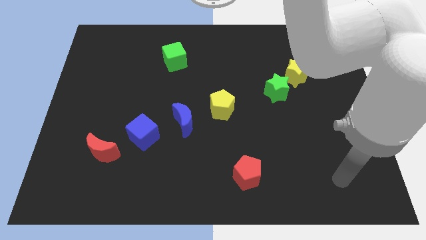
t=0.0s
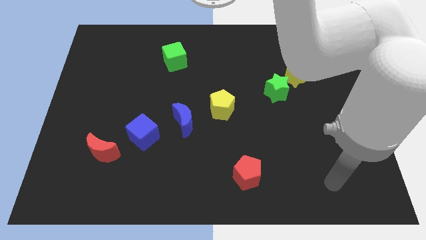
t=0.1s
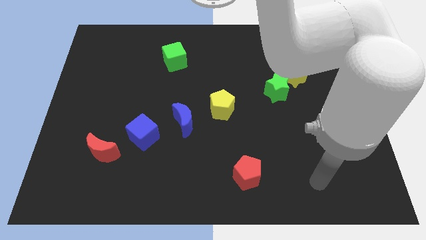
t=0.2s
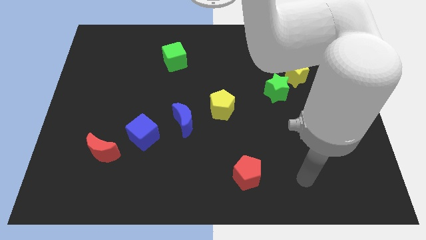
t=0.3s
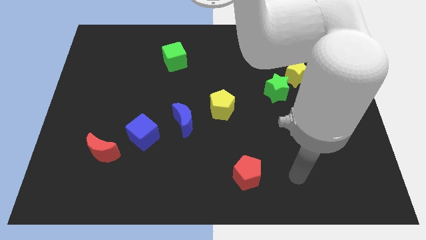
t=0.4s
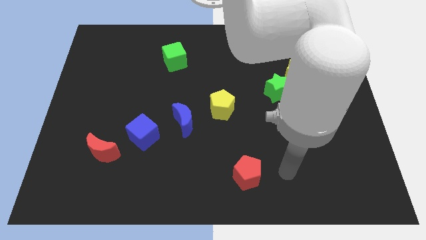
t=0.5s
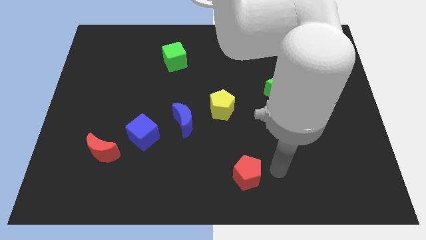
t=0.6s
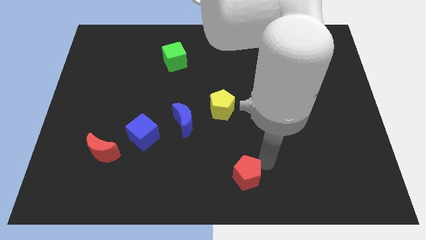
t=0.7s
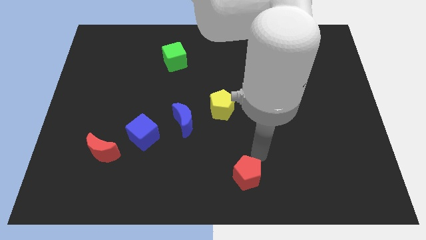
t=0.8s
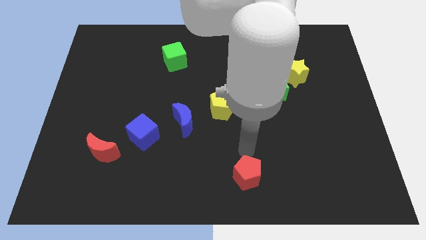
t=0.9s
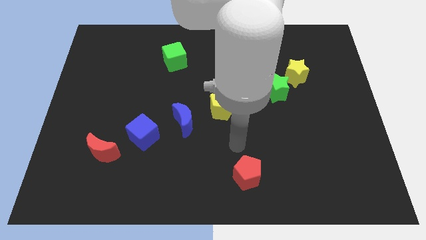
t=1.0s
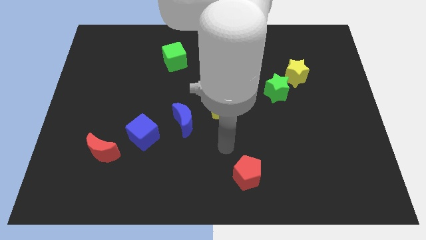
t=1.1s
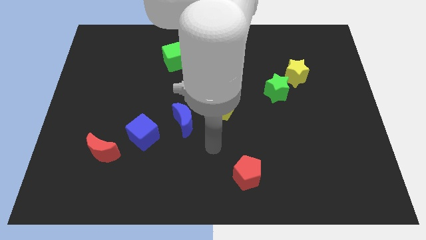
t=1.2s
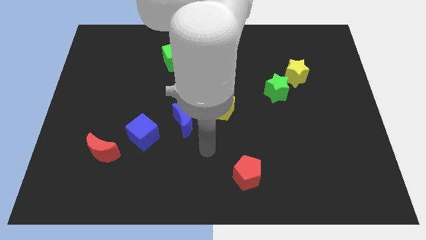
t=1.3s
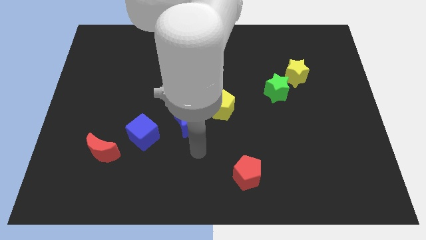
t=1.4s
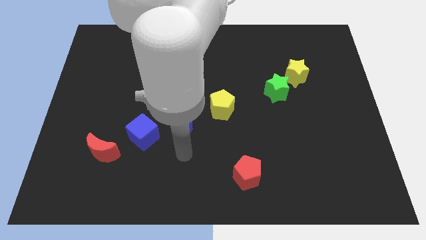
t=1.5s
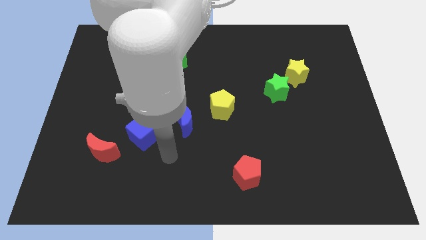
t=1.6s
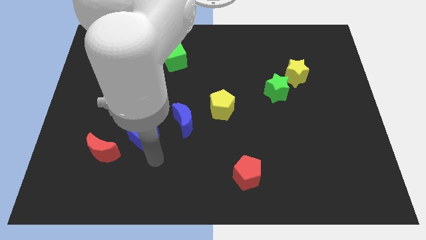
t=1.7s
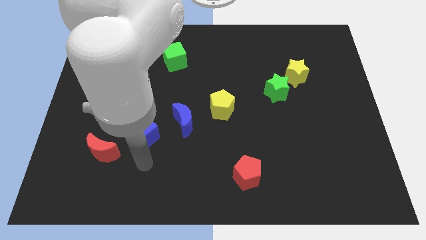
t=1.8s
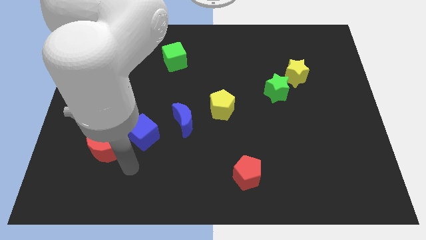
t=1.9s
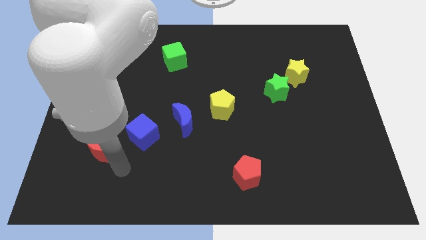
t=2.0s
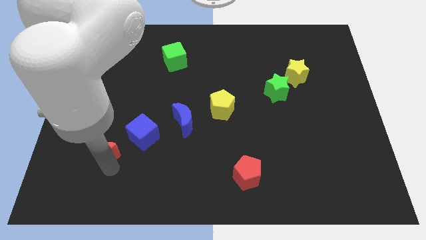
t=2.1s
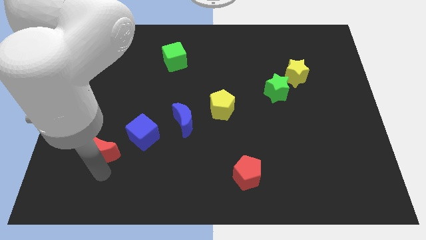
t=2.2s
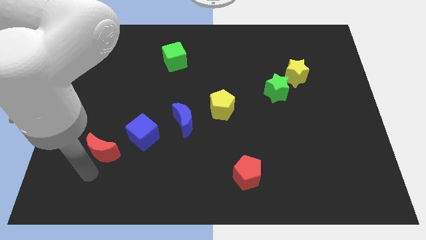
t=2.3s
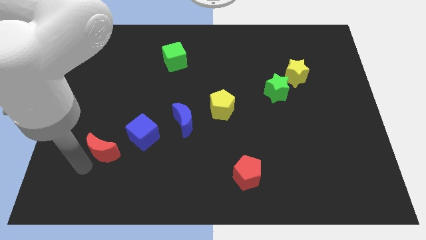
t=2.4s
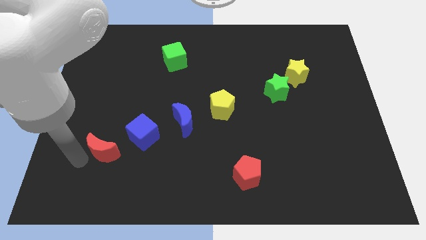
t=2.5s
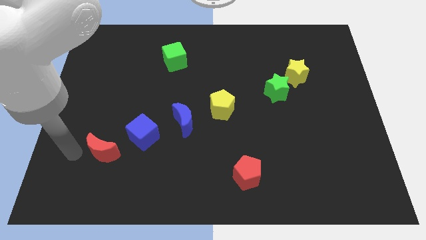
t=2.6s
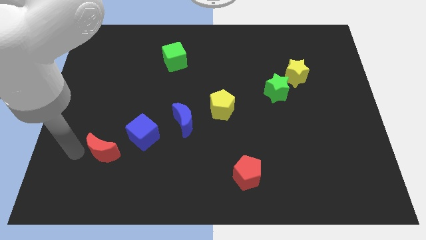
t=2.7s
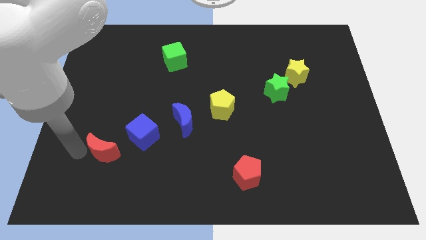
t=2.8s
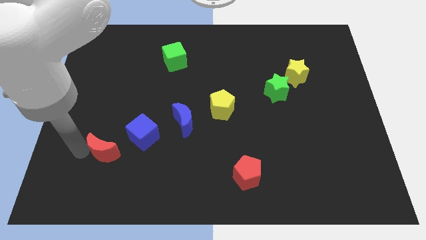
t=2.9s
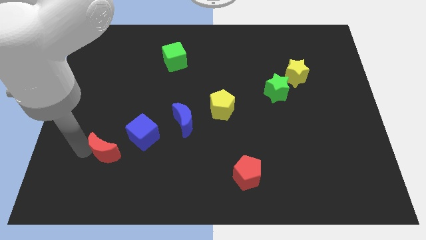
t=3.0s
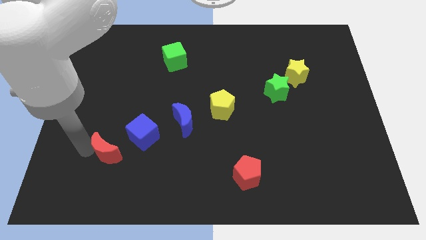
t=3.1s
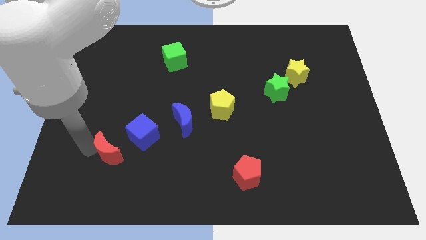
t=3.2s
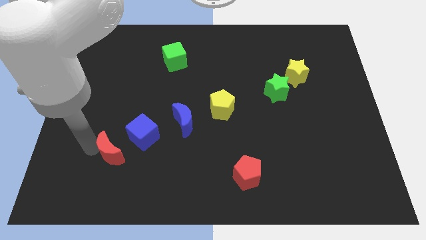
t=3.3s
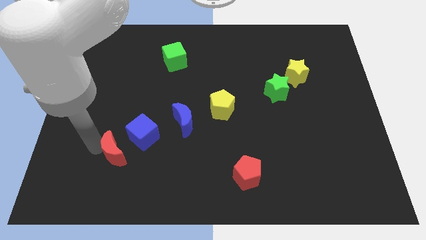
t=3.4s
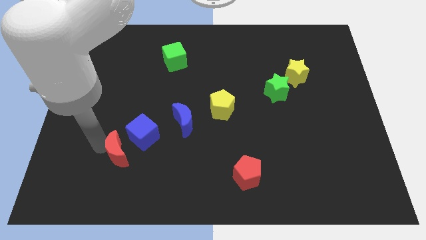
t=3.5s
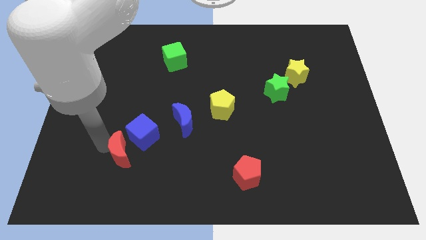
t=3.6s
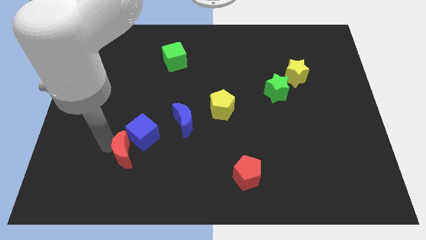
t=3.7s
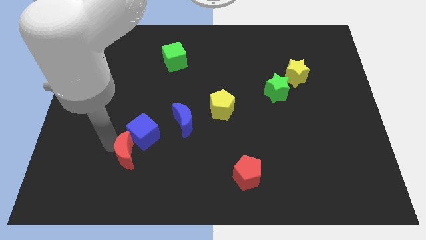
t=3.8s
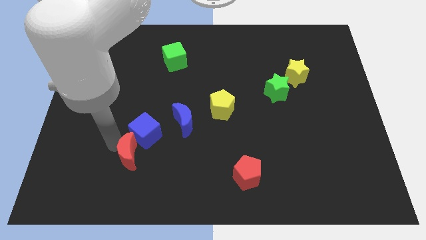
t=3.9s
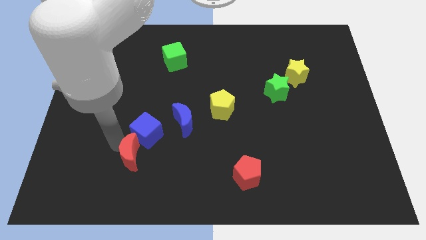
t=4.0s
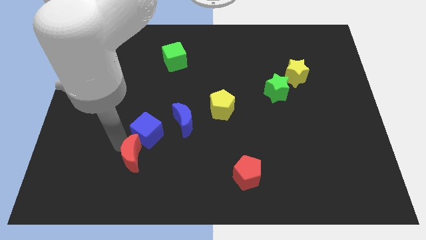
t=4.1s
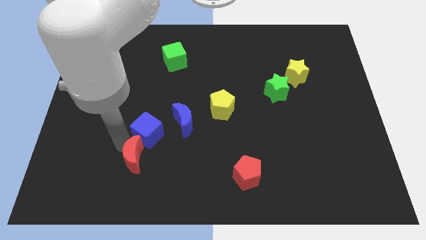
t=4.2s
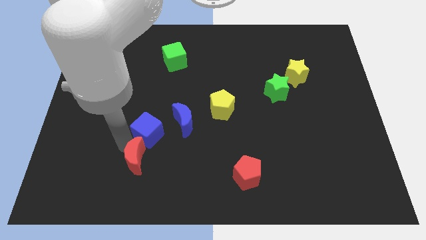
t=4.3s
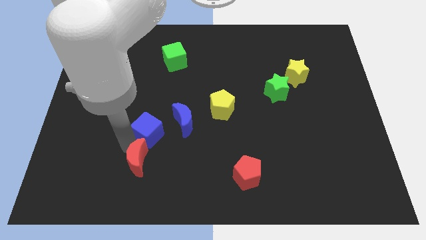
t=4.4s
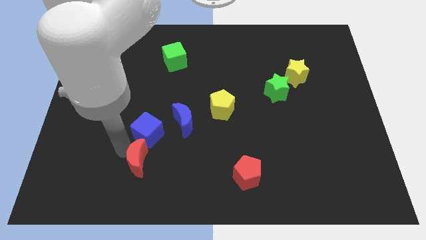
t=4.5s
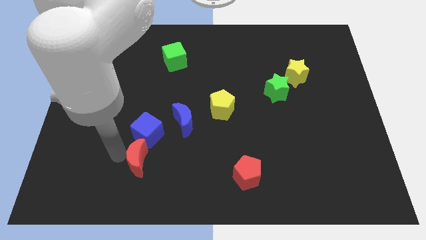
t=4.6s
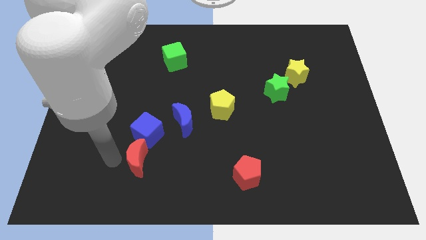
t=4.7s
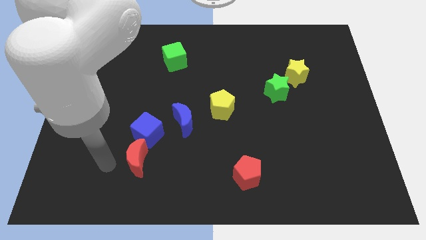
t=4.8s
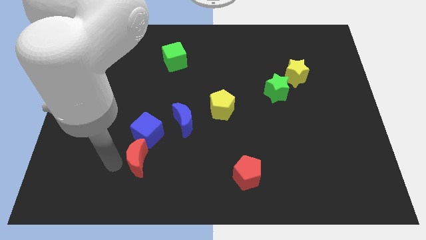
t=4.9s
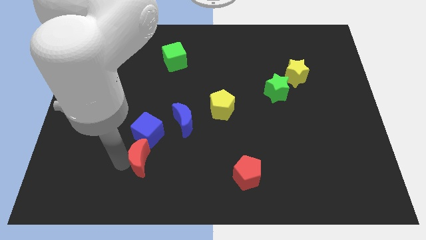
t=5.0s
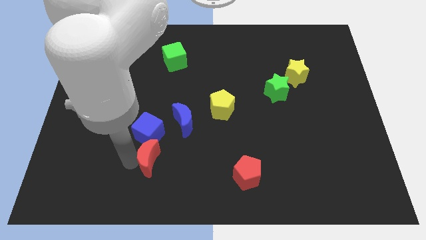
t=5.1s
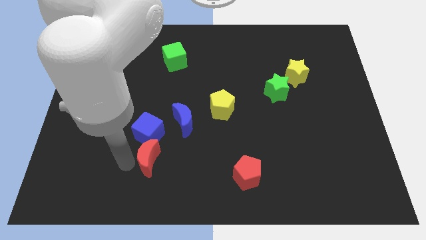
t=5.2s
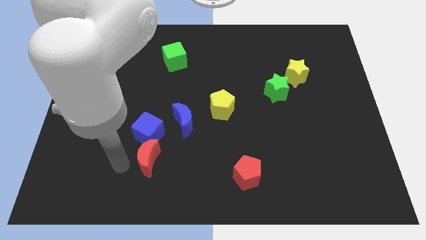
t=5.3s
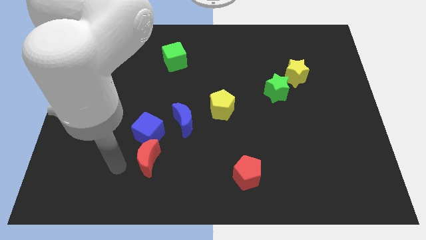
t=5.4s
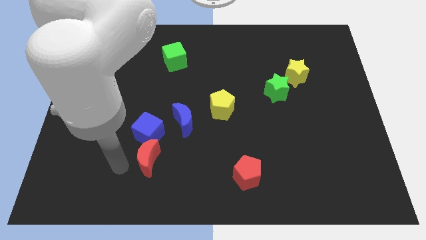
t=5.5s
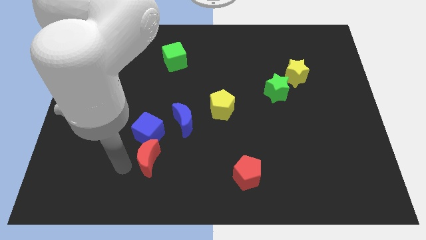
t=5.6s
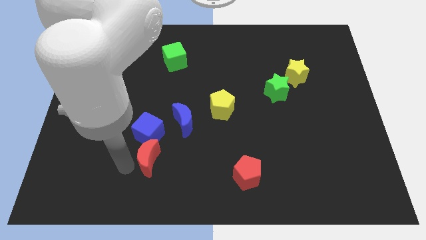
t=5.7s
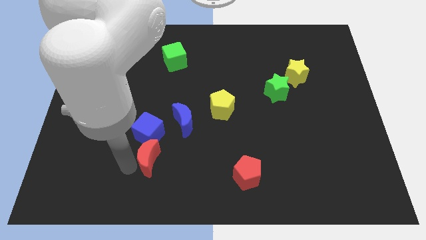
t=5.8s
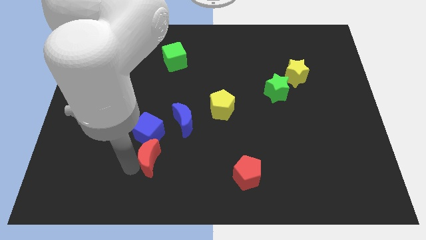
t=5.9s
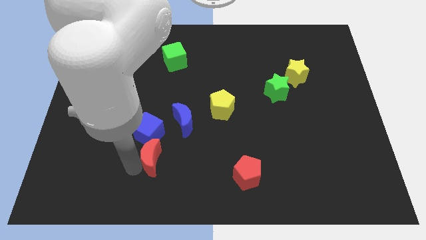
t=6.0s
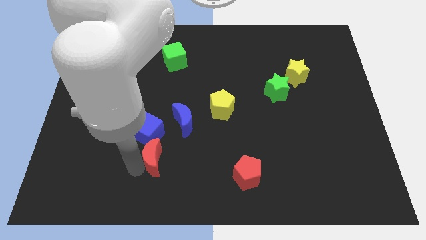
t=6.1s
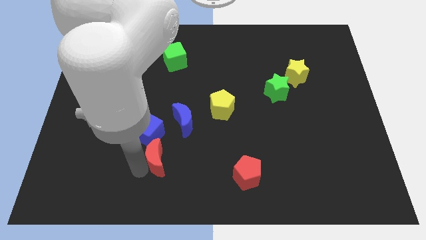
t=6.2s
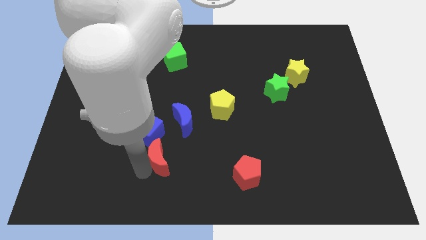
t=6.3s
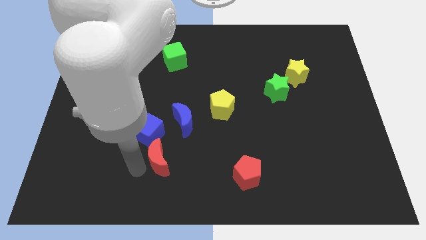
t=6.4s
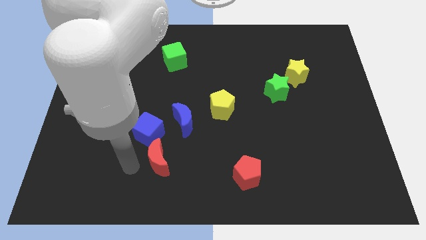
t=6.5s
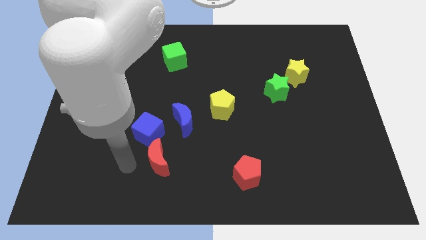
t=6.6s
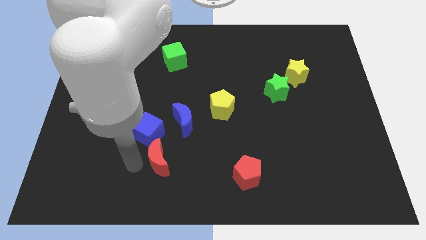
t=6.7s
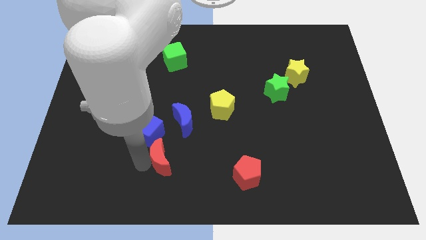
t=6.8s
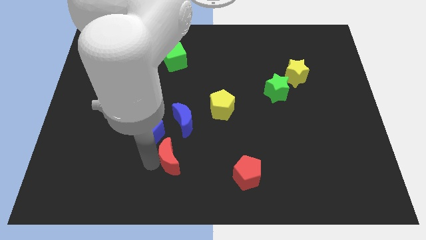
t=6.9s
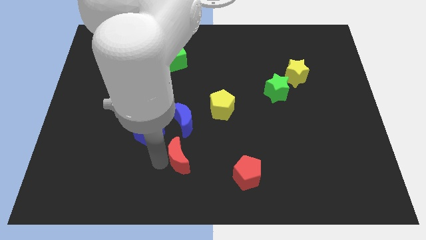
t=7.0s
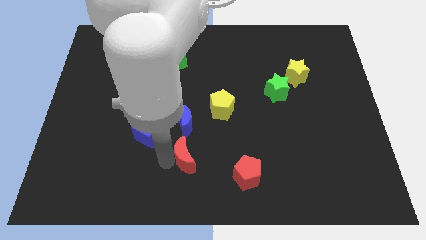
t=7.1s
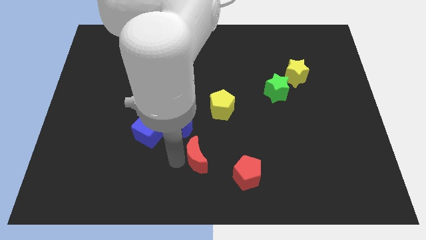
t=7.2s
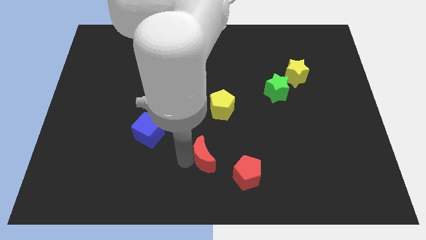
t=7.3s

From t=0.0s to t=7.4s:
push the red moon diagonally up and to the left of the red pentagon
